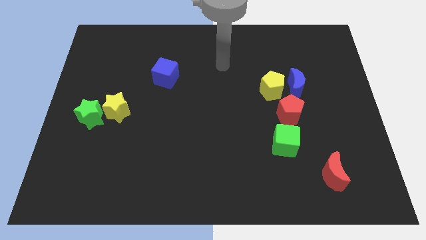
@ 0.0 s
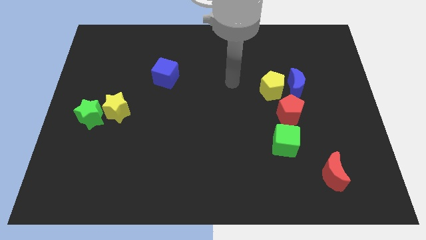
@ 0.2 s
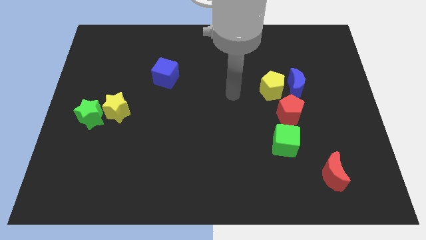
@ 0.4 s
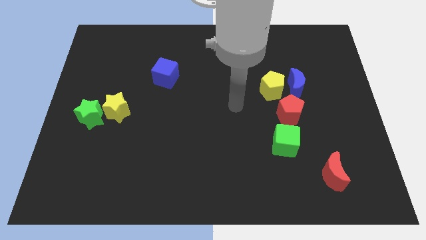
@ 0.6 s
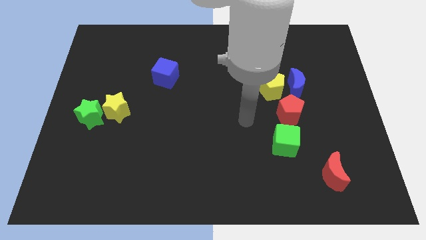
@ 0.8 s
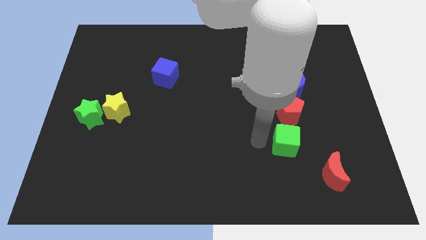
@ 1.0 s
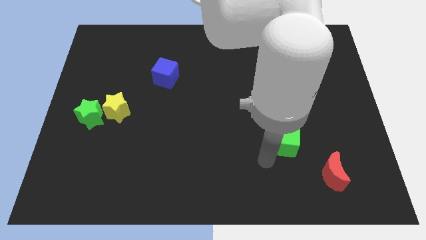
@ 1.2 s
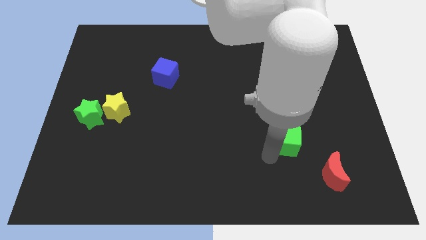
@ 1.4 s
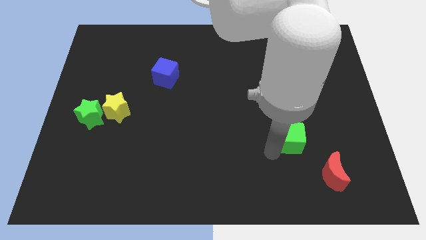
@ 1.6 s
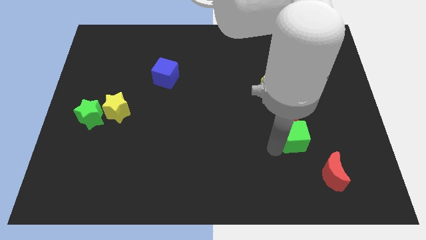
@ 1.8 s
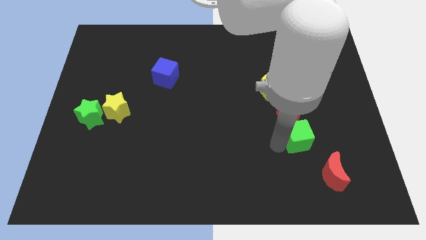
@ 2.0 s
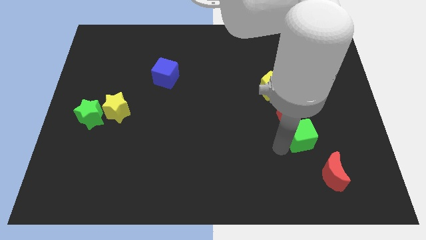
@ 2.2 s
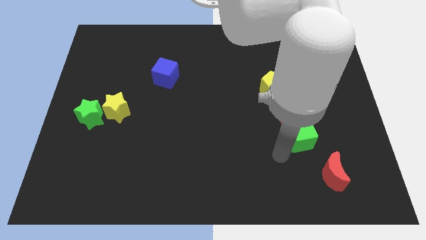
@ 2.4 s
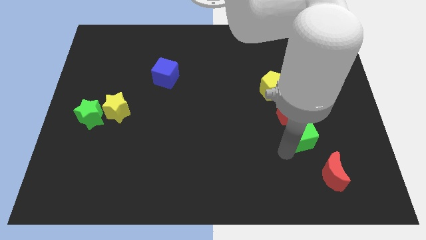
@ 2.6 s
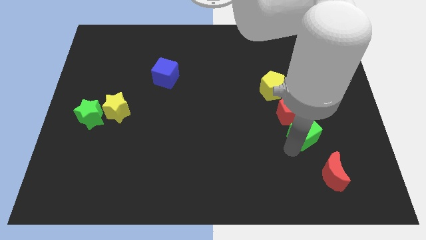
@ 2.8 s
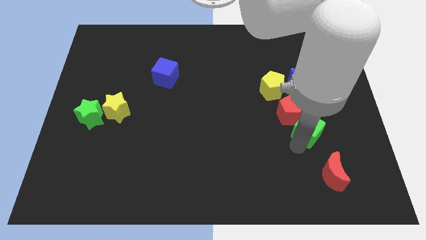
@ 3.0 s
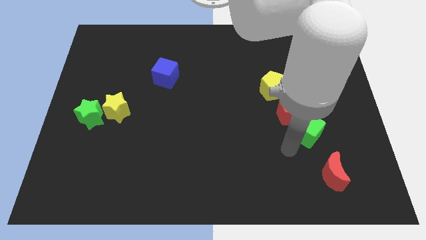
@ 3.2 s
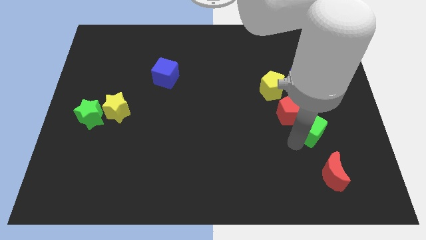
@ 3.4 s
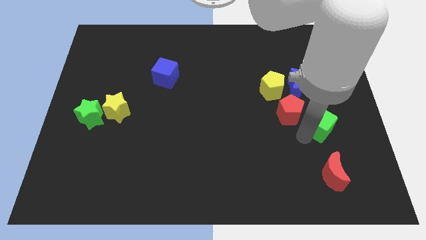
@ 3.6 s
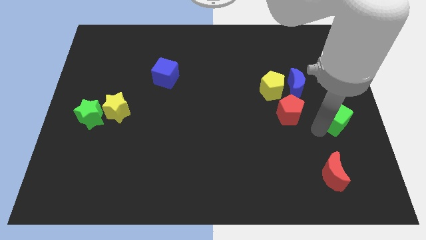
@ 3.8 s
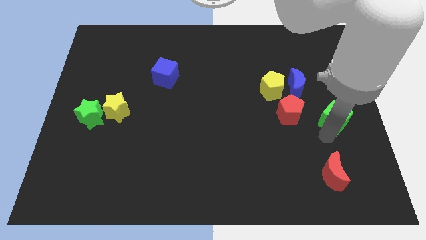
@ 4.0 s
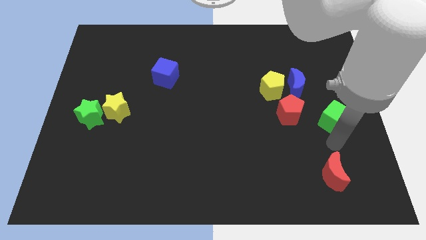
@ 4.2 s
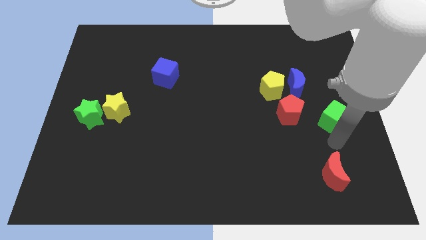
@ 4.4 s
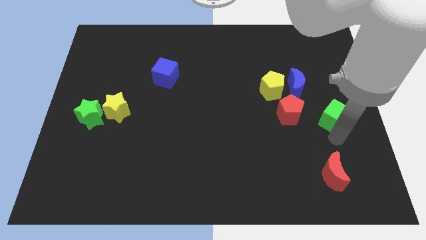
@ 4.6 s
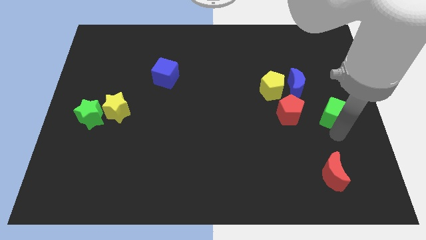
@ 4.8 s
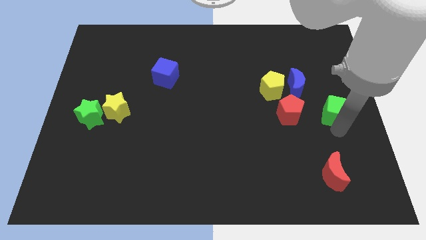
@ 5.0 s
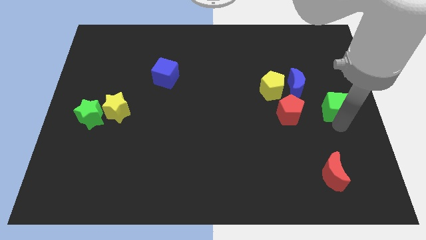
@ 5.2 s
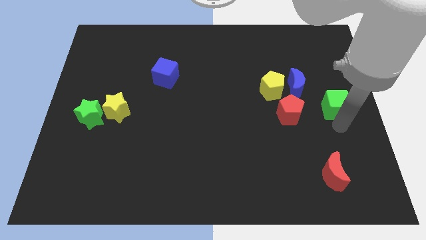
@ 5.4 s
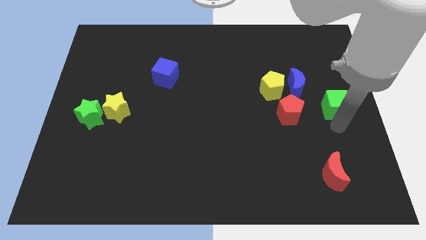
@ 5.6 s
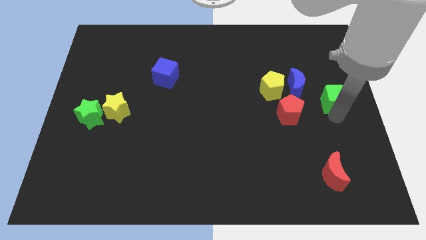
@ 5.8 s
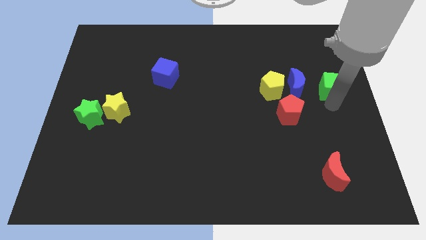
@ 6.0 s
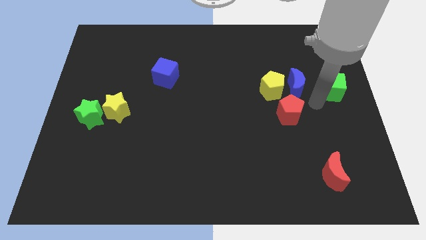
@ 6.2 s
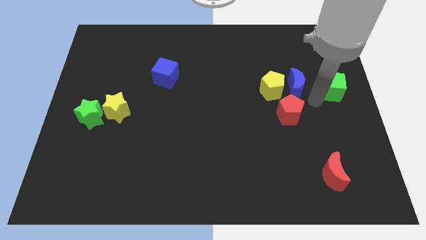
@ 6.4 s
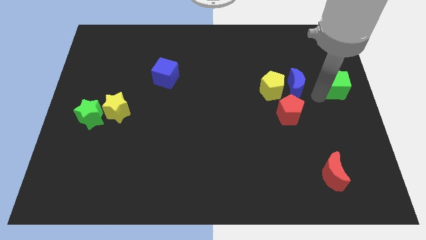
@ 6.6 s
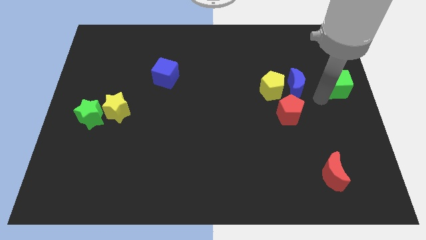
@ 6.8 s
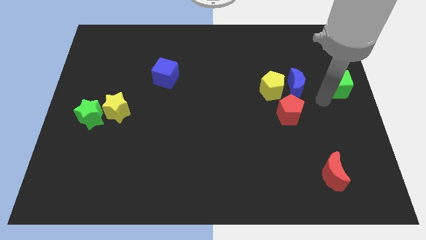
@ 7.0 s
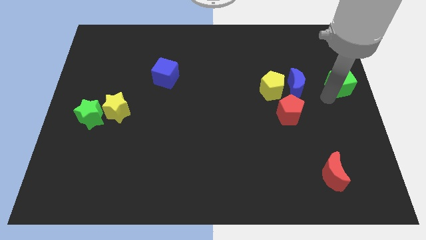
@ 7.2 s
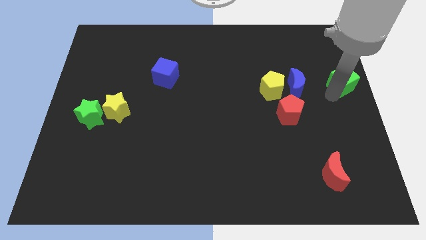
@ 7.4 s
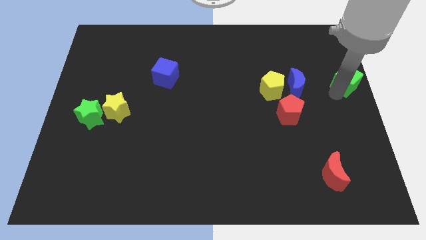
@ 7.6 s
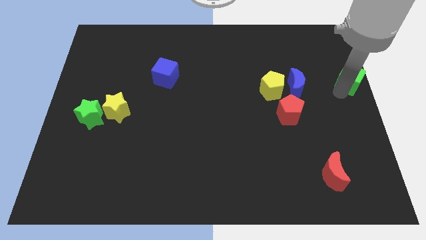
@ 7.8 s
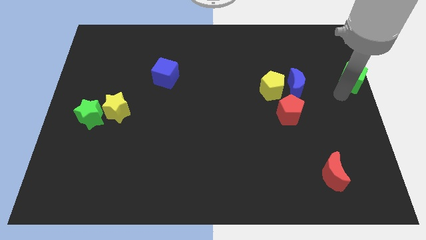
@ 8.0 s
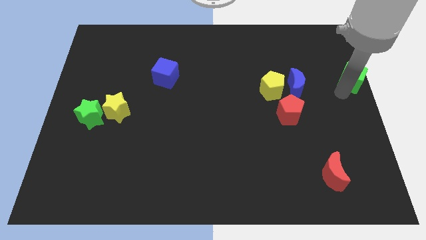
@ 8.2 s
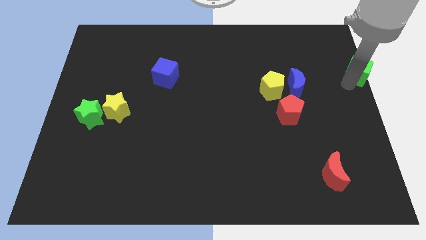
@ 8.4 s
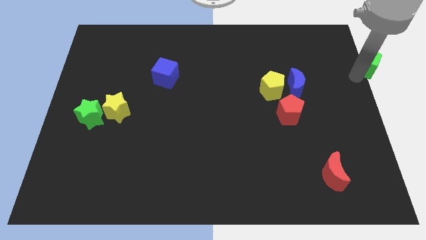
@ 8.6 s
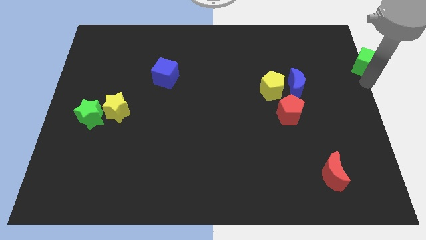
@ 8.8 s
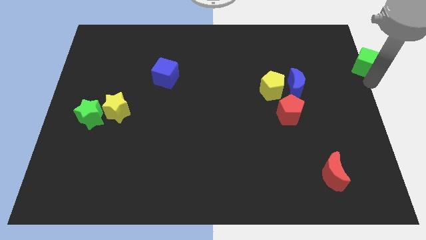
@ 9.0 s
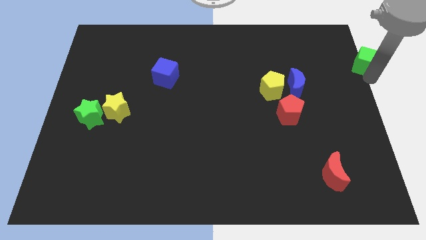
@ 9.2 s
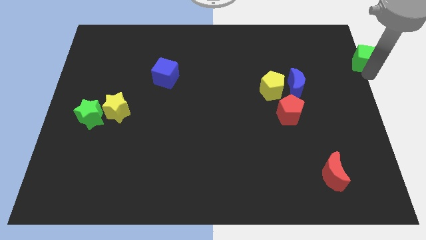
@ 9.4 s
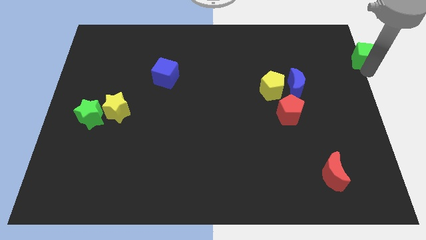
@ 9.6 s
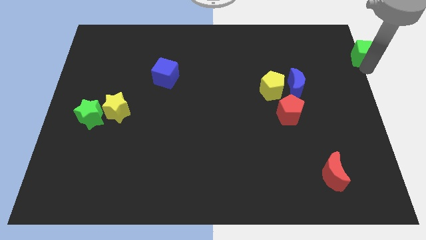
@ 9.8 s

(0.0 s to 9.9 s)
push the green cube to the upper right corner

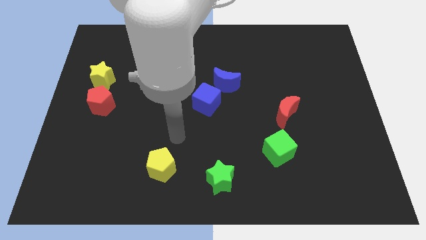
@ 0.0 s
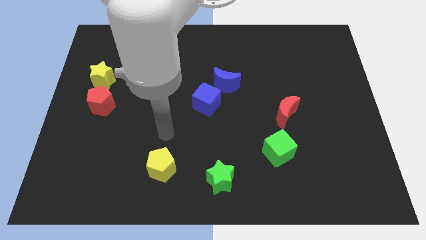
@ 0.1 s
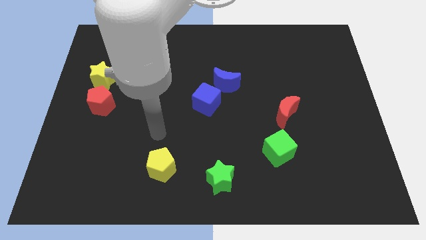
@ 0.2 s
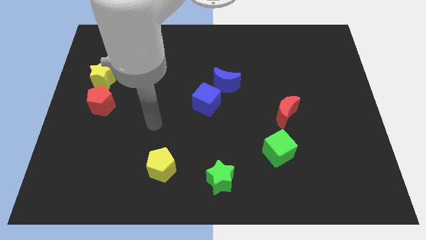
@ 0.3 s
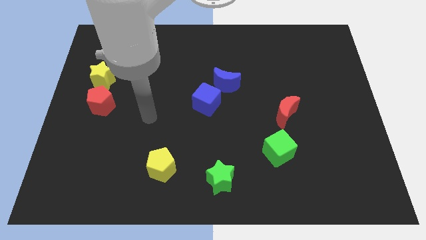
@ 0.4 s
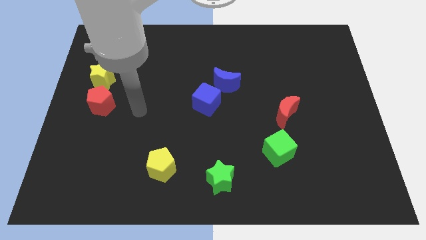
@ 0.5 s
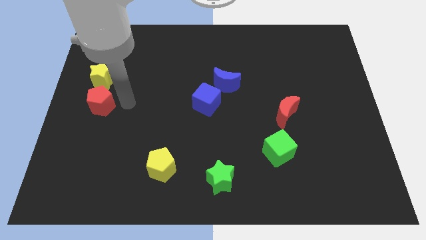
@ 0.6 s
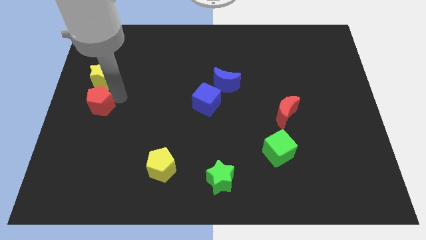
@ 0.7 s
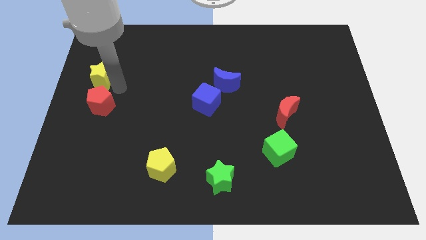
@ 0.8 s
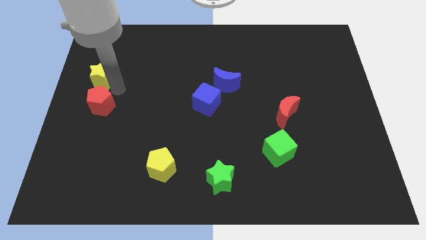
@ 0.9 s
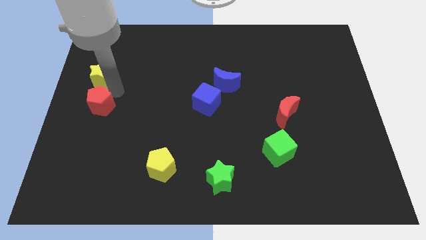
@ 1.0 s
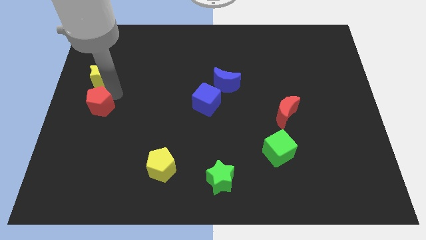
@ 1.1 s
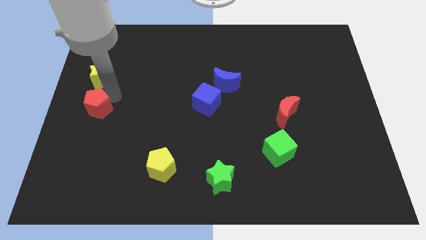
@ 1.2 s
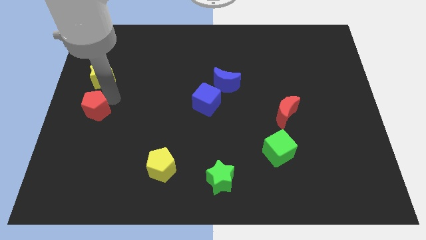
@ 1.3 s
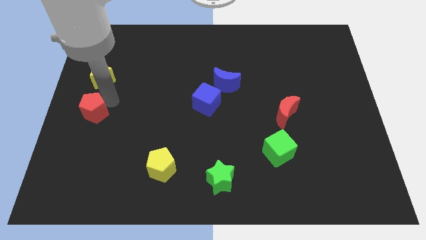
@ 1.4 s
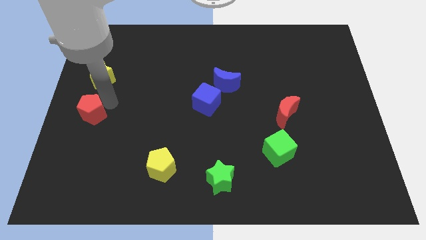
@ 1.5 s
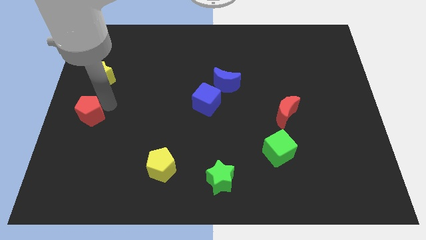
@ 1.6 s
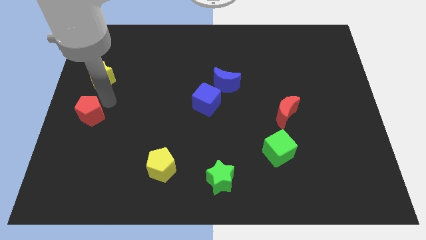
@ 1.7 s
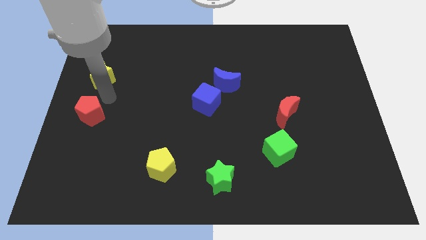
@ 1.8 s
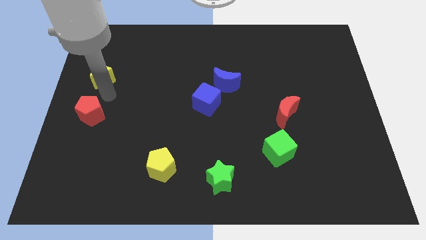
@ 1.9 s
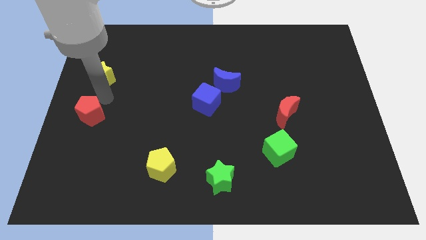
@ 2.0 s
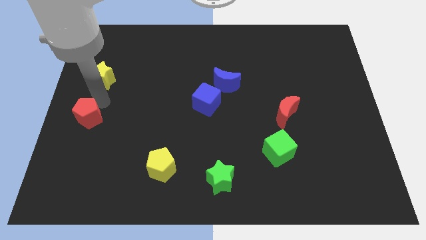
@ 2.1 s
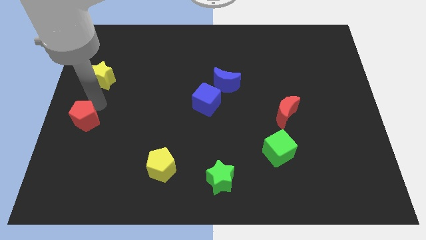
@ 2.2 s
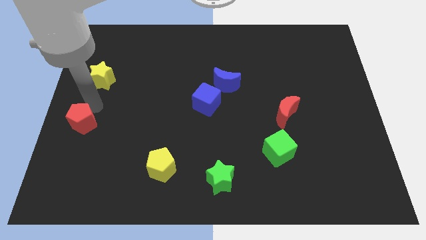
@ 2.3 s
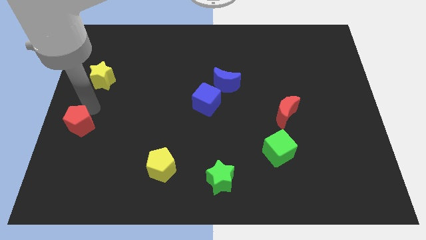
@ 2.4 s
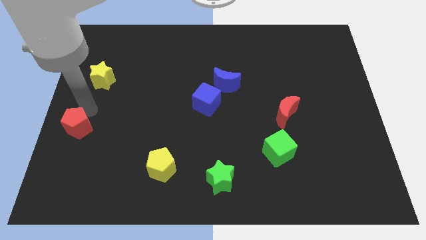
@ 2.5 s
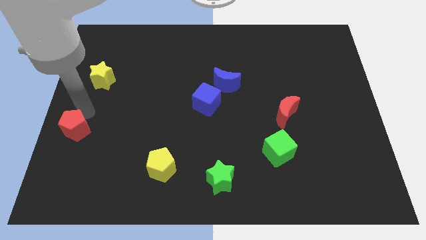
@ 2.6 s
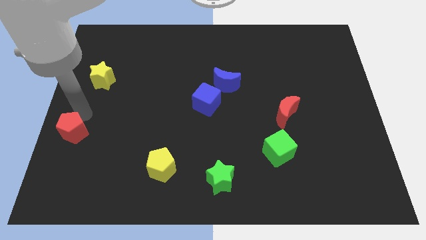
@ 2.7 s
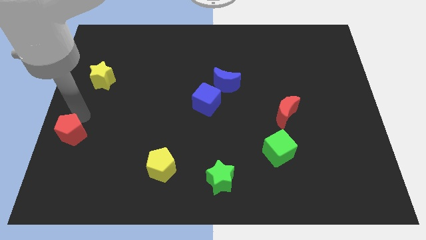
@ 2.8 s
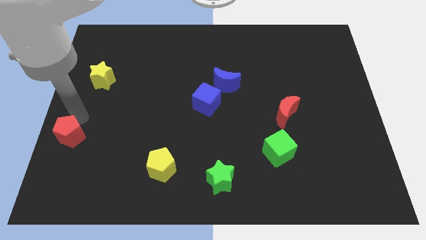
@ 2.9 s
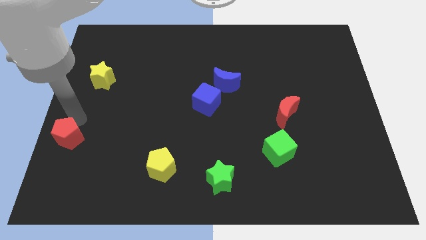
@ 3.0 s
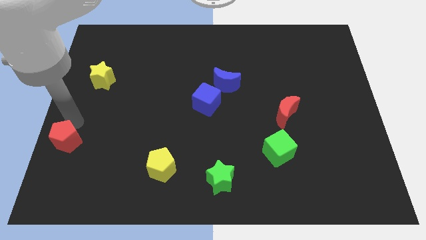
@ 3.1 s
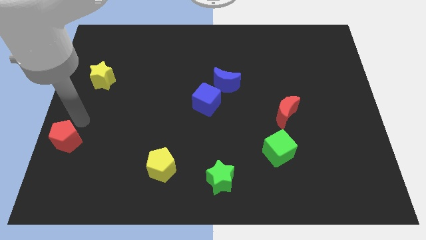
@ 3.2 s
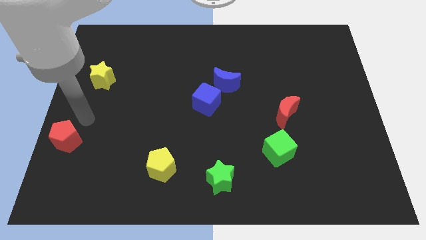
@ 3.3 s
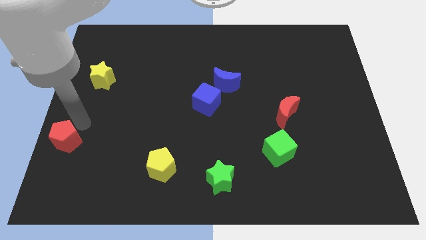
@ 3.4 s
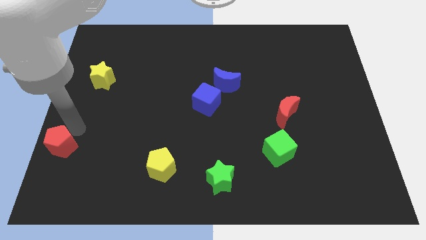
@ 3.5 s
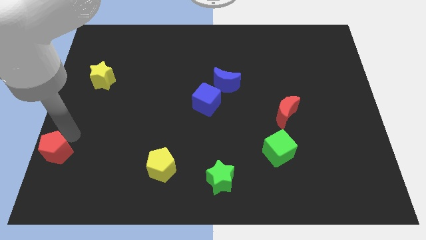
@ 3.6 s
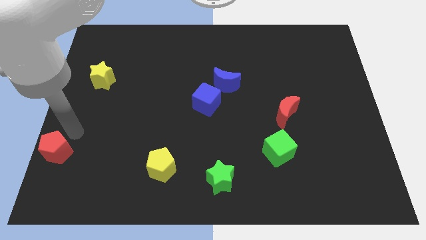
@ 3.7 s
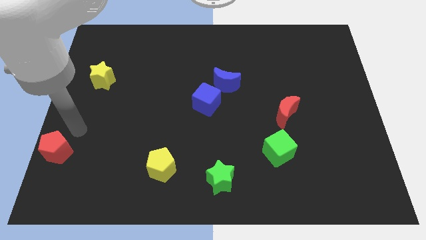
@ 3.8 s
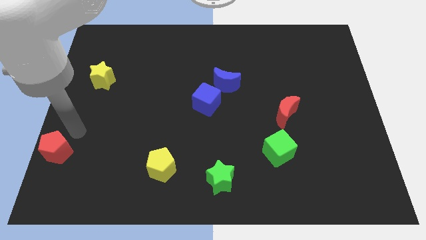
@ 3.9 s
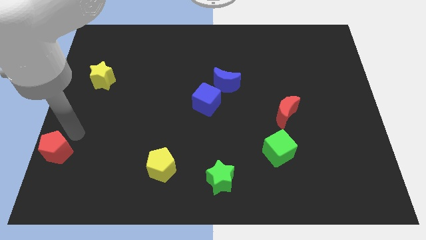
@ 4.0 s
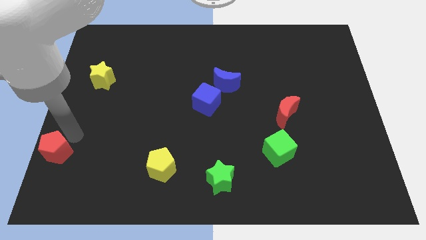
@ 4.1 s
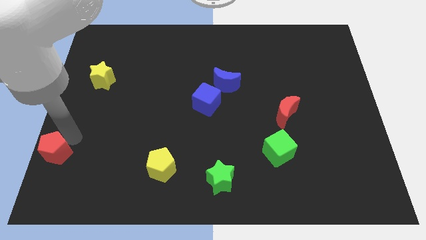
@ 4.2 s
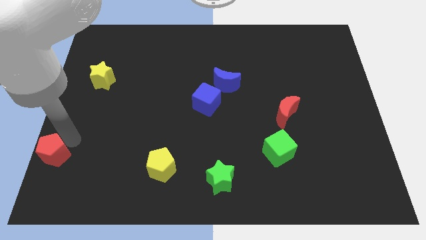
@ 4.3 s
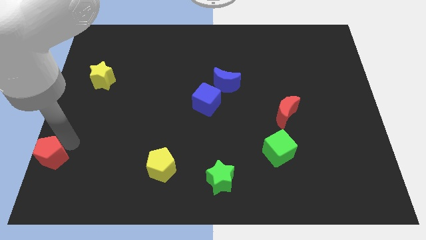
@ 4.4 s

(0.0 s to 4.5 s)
move the red pentagon to the bottom left of the board
